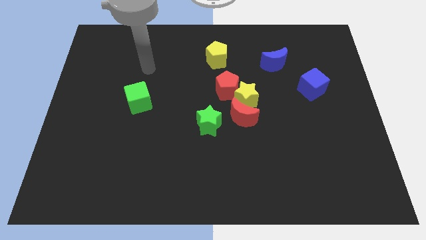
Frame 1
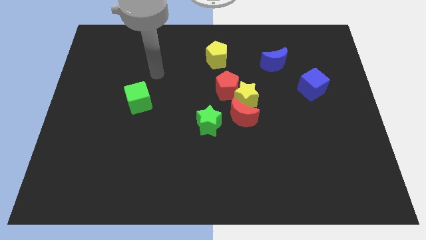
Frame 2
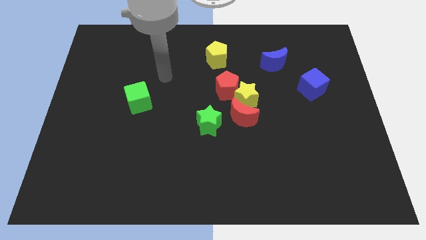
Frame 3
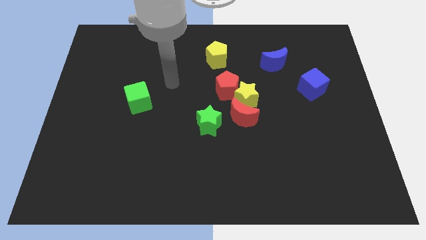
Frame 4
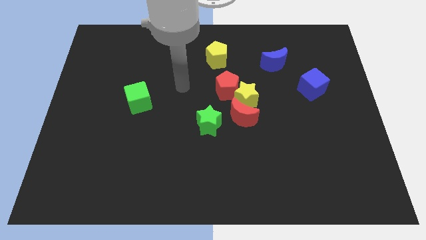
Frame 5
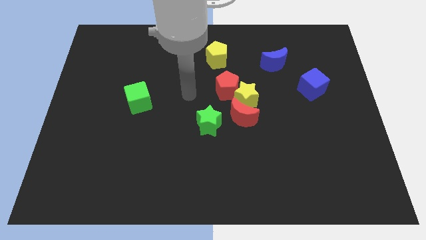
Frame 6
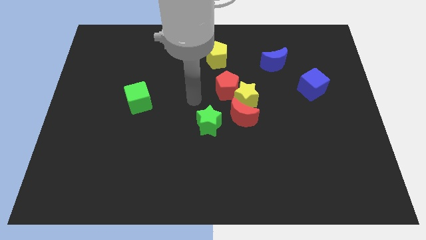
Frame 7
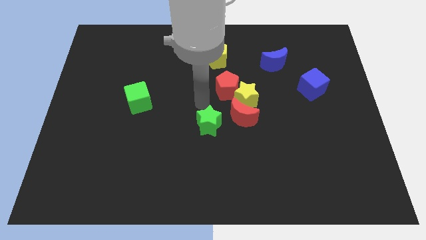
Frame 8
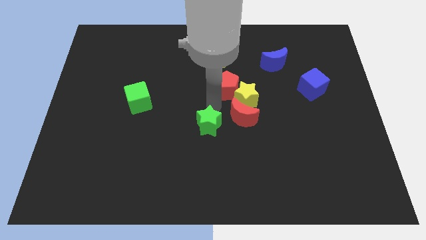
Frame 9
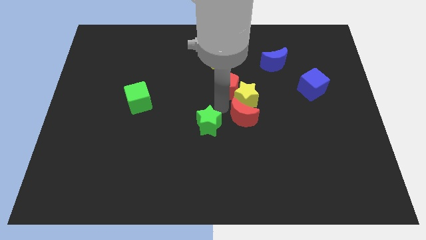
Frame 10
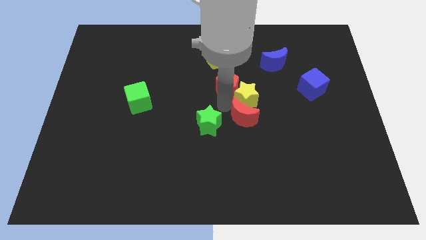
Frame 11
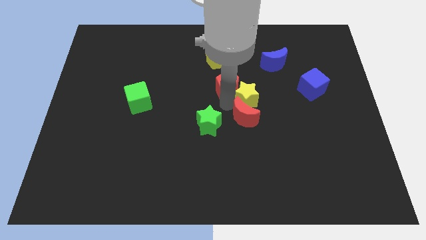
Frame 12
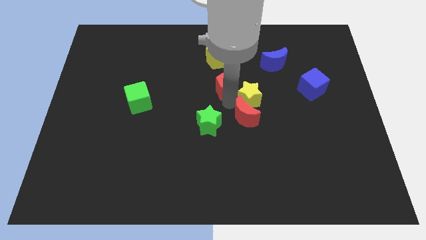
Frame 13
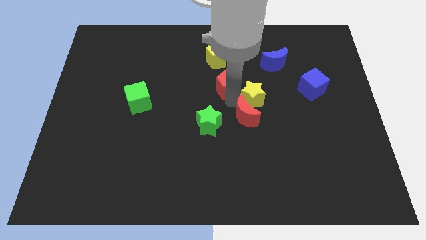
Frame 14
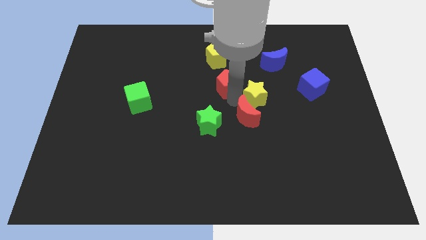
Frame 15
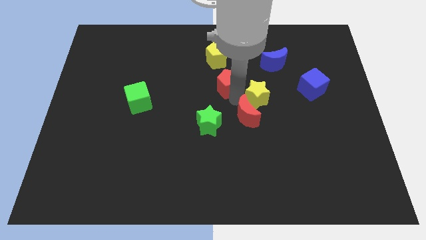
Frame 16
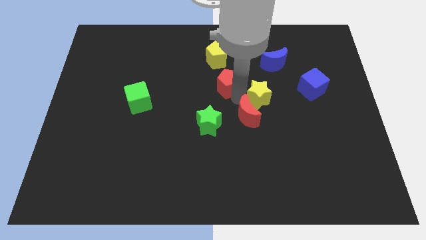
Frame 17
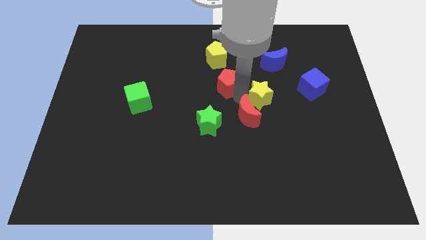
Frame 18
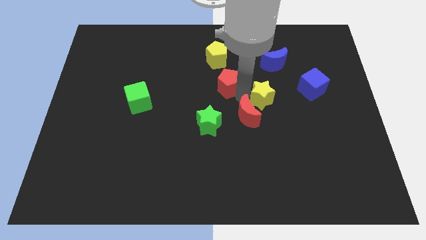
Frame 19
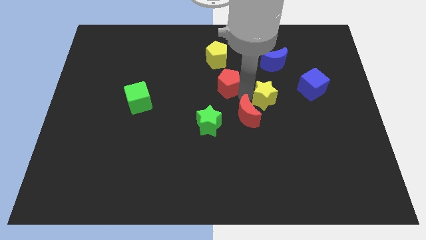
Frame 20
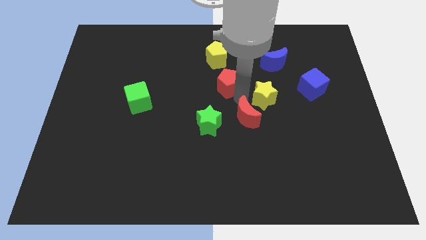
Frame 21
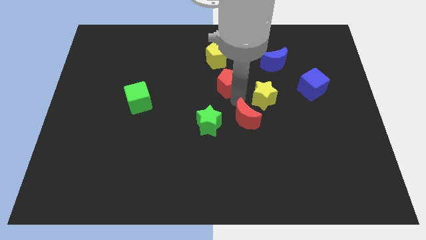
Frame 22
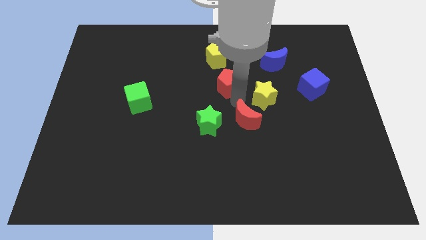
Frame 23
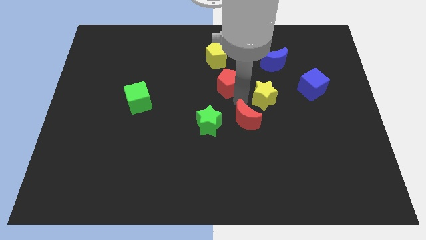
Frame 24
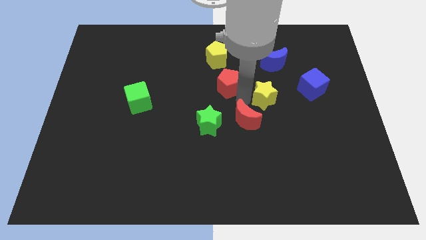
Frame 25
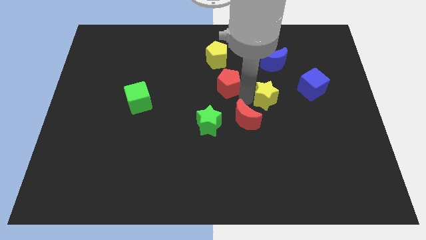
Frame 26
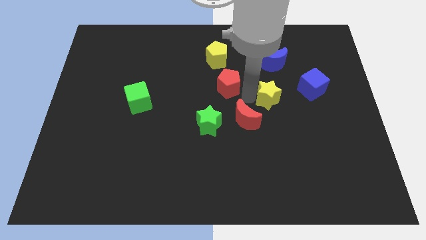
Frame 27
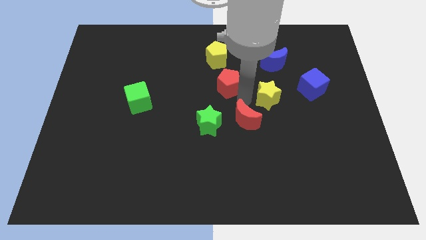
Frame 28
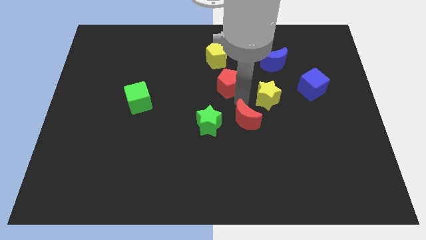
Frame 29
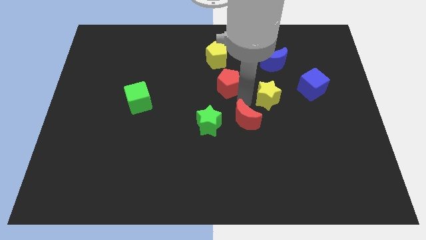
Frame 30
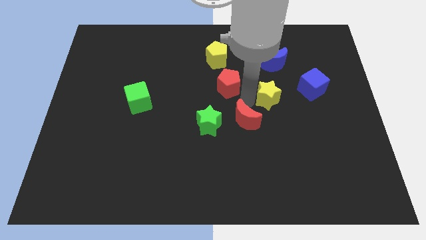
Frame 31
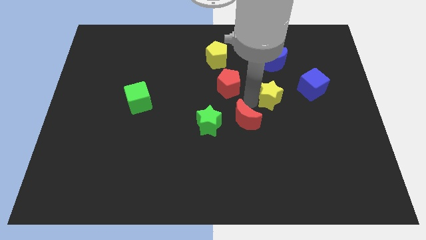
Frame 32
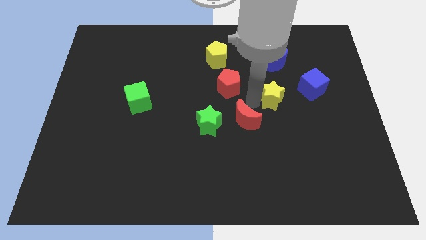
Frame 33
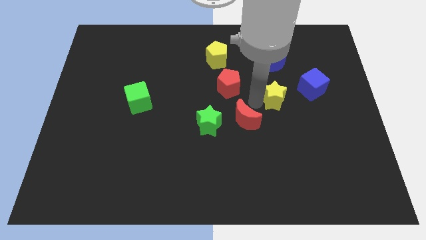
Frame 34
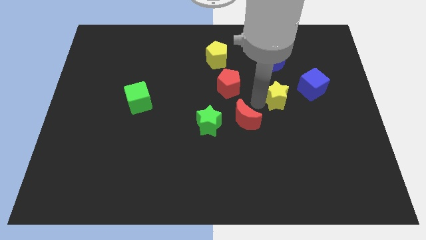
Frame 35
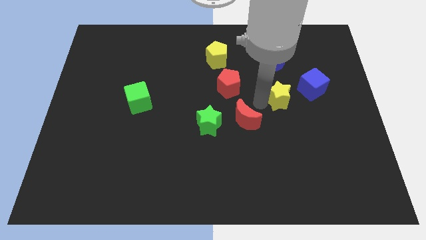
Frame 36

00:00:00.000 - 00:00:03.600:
move the yellow star away from the red pentagon and red moon

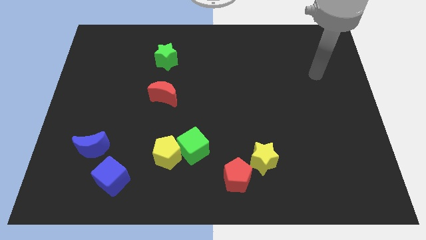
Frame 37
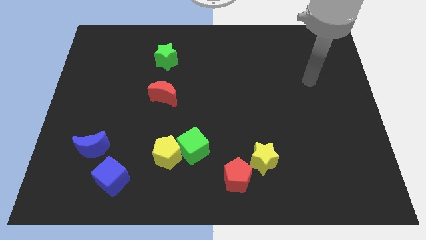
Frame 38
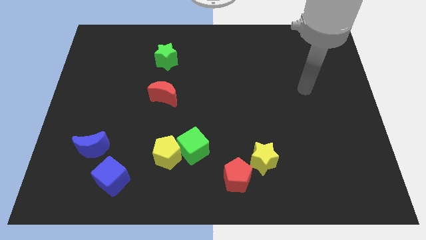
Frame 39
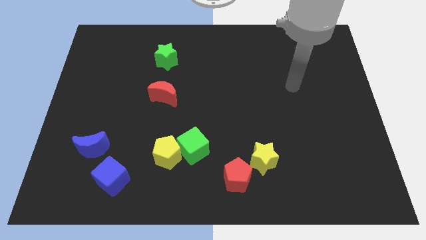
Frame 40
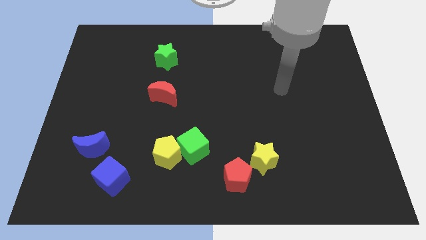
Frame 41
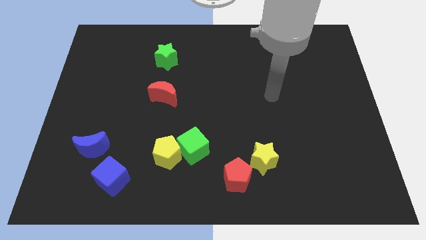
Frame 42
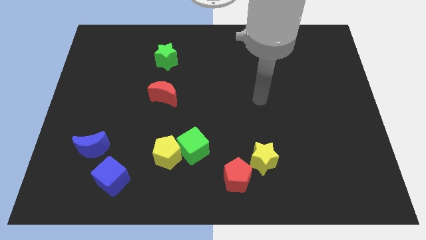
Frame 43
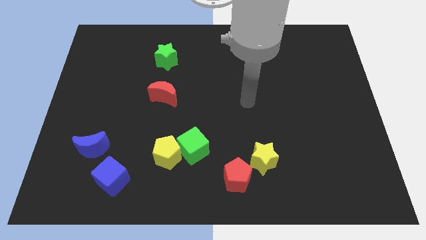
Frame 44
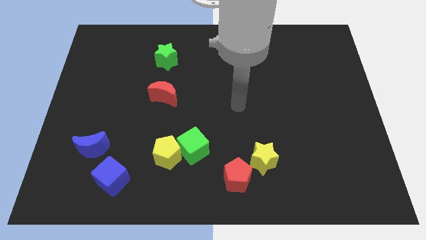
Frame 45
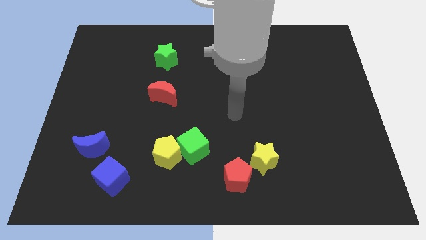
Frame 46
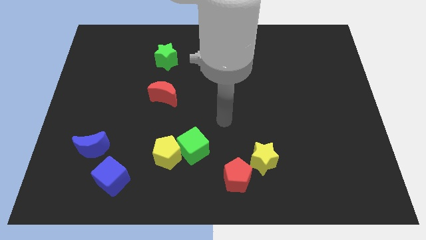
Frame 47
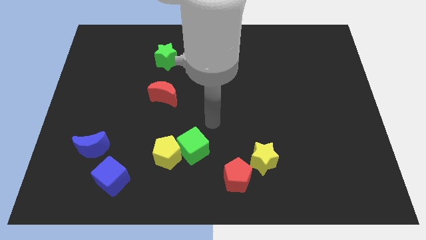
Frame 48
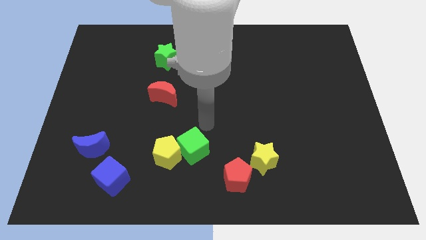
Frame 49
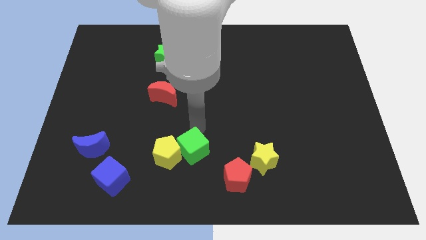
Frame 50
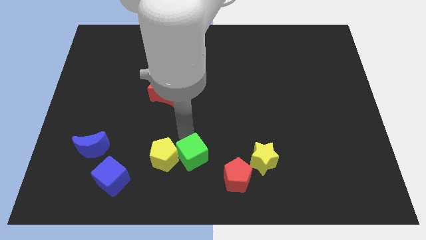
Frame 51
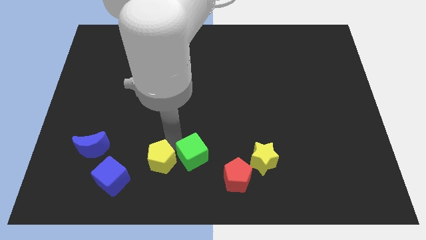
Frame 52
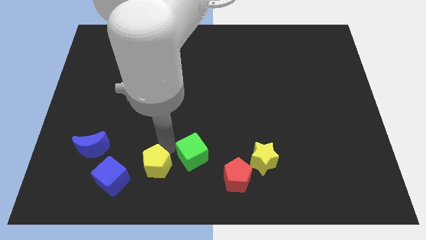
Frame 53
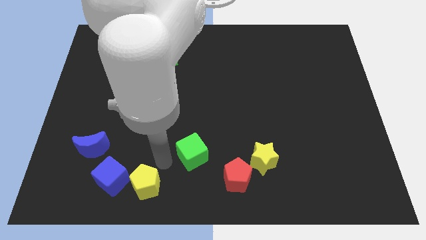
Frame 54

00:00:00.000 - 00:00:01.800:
pull the green cube apart from the yellow pentagon

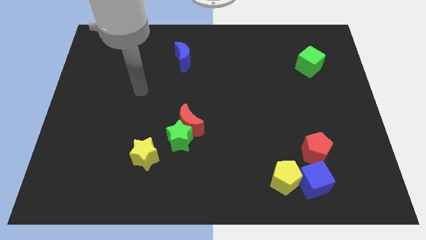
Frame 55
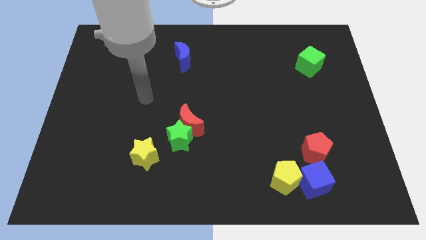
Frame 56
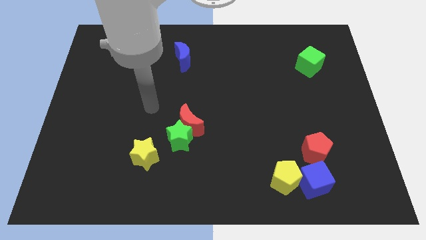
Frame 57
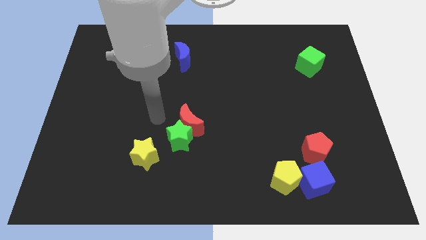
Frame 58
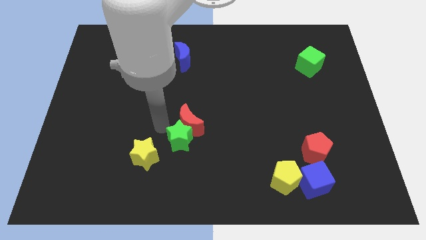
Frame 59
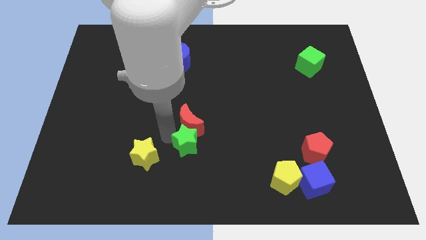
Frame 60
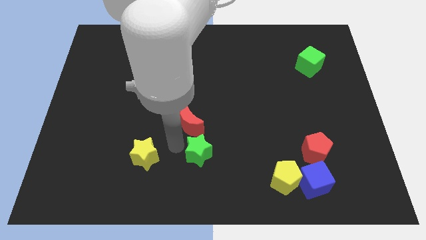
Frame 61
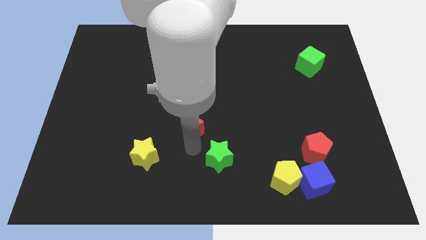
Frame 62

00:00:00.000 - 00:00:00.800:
move the red moon away from the green star

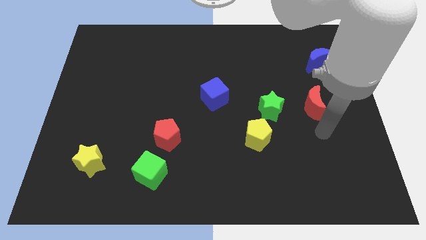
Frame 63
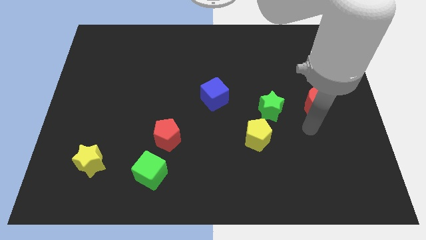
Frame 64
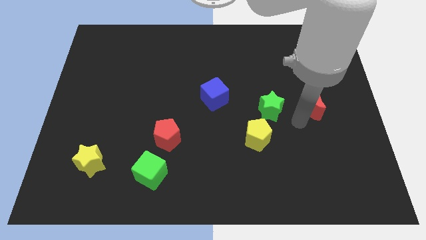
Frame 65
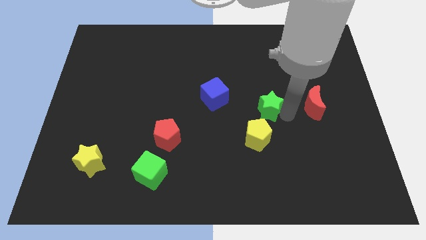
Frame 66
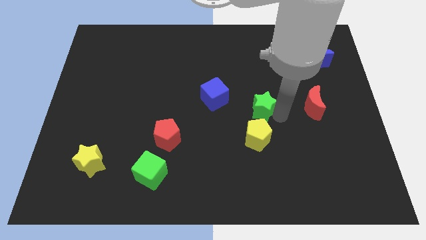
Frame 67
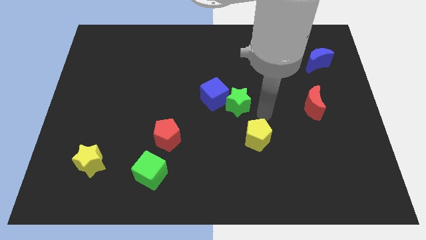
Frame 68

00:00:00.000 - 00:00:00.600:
separate the yellow pentagon from the green star

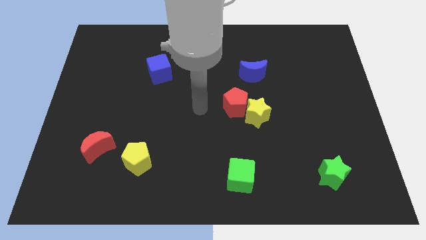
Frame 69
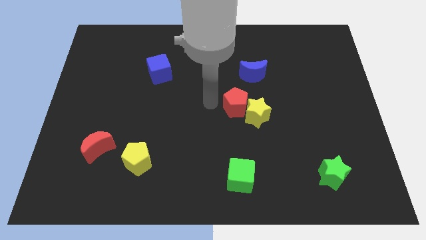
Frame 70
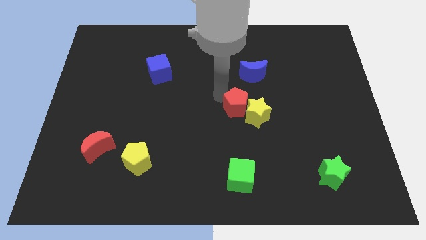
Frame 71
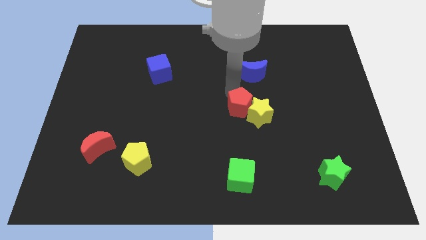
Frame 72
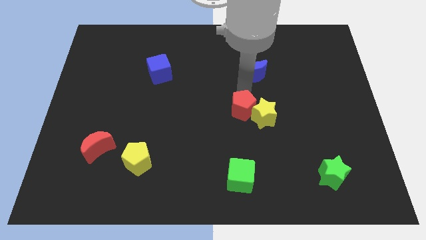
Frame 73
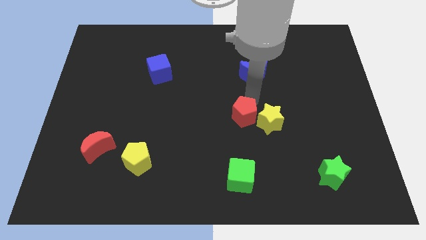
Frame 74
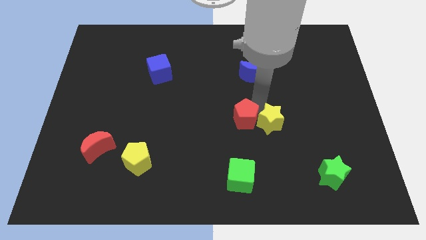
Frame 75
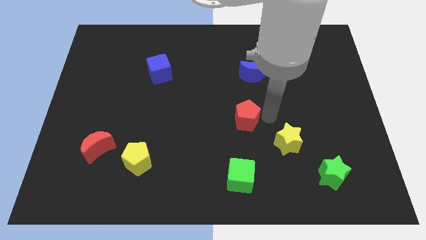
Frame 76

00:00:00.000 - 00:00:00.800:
move the red pentagon away from the yellow star

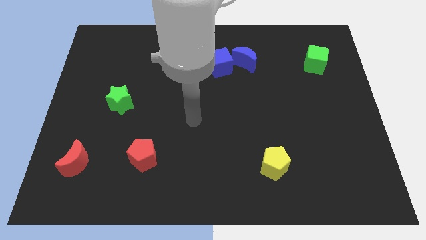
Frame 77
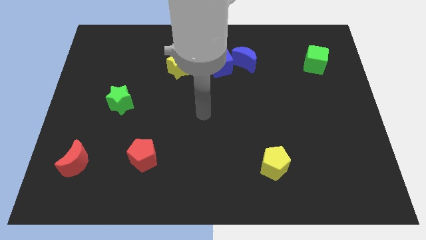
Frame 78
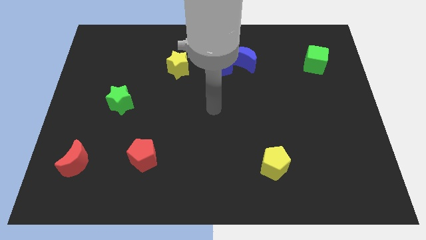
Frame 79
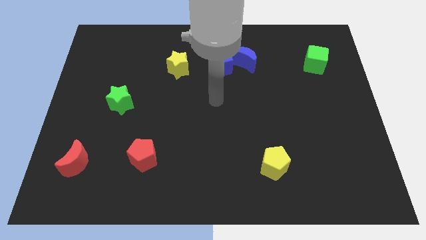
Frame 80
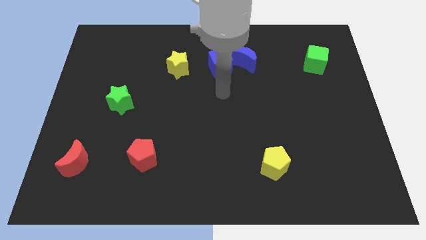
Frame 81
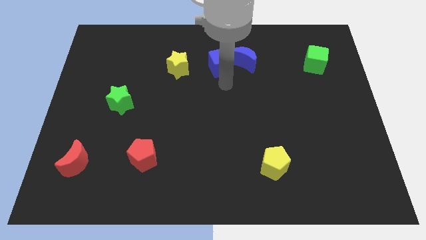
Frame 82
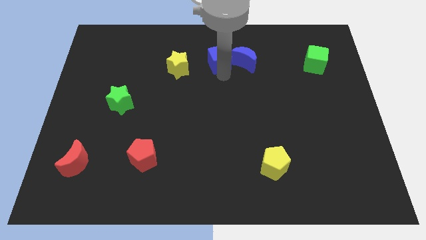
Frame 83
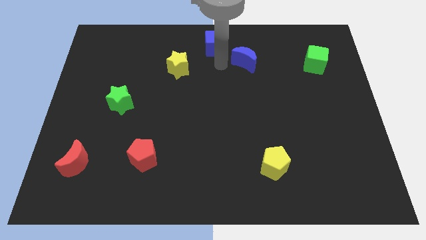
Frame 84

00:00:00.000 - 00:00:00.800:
move the blue moon away from the blue cube

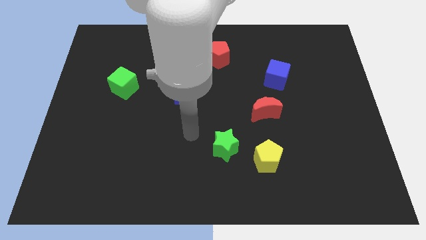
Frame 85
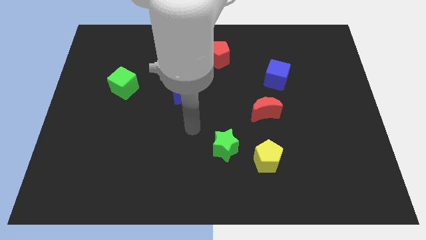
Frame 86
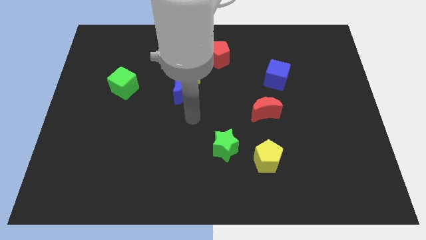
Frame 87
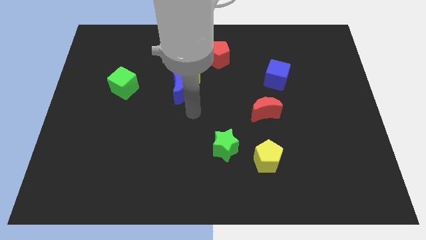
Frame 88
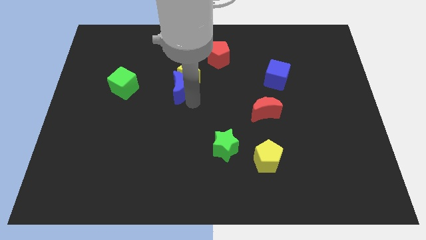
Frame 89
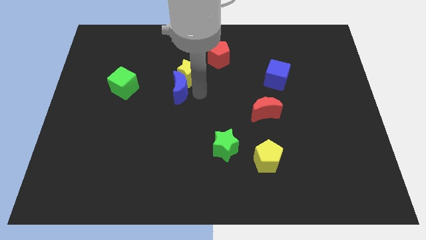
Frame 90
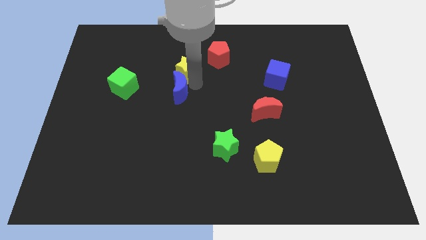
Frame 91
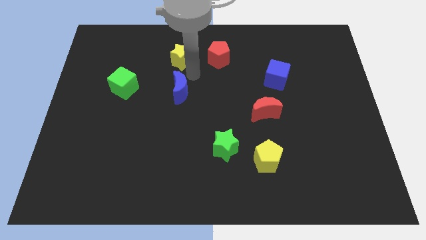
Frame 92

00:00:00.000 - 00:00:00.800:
pull the blue moon apart from the yellow star
